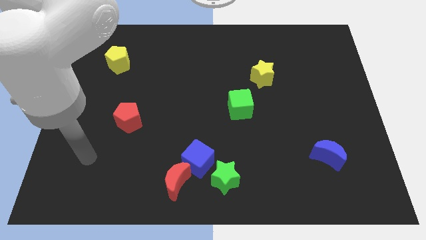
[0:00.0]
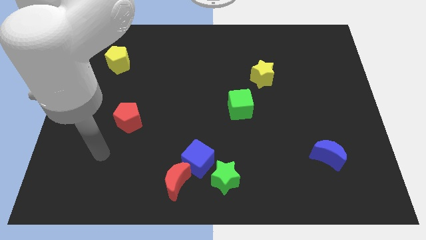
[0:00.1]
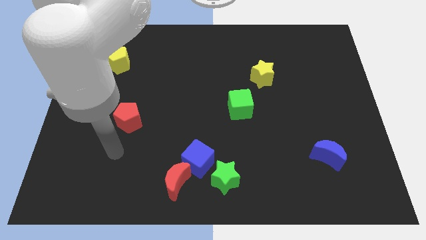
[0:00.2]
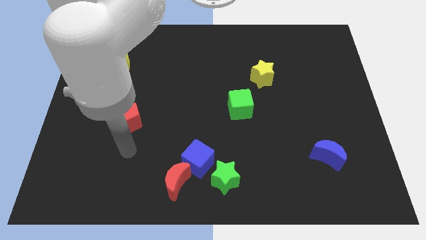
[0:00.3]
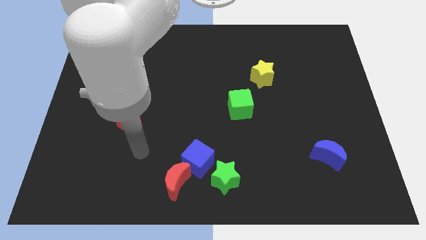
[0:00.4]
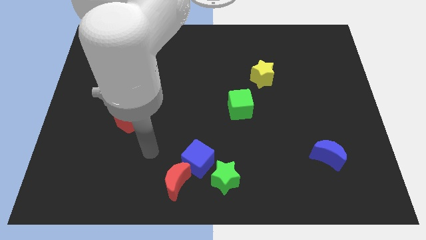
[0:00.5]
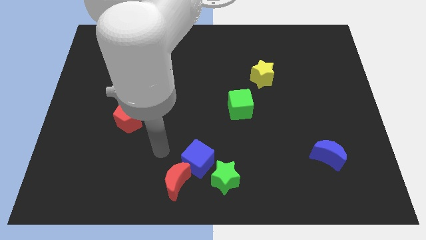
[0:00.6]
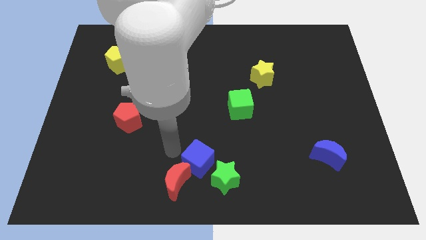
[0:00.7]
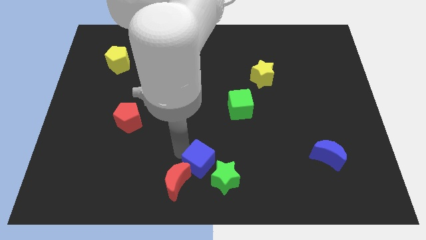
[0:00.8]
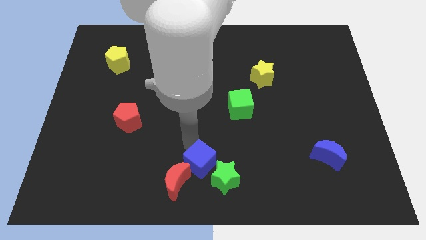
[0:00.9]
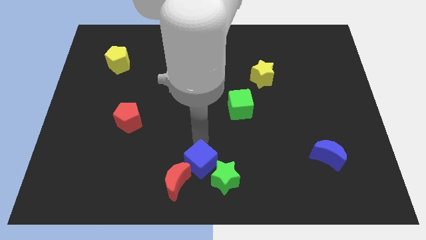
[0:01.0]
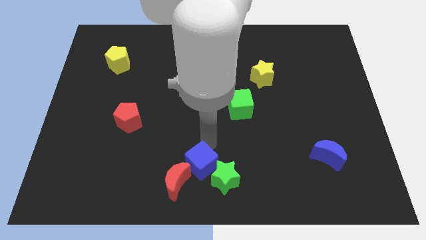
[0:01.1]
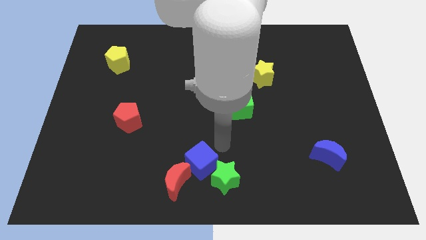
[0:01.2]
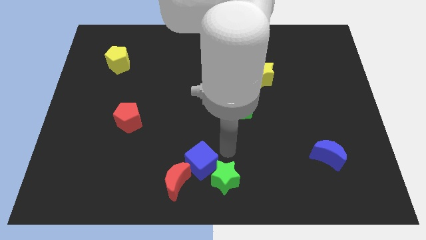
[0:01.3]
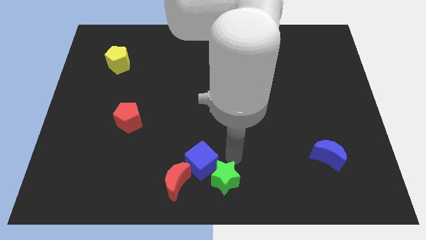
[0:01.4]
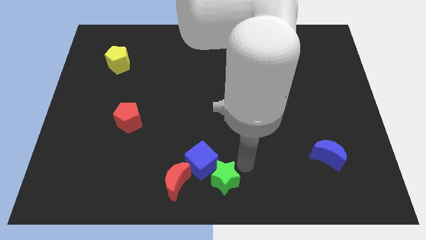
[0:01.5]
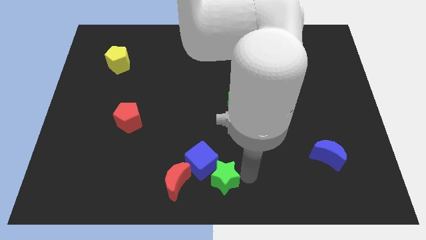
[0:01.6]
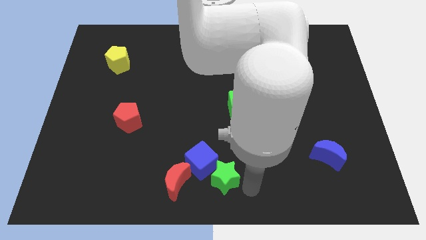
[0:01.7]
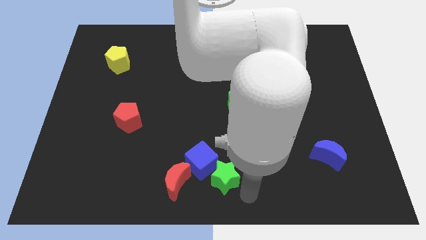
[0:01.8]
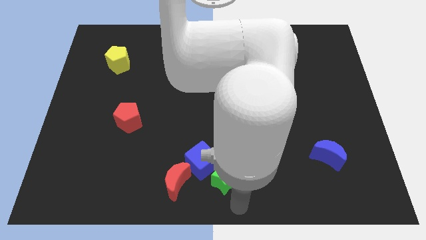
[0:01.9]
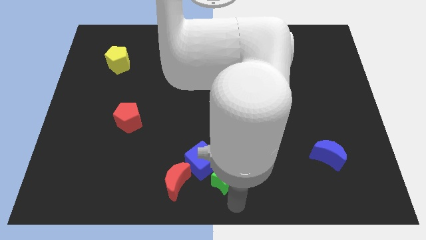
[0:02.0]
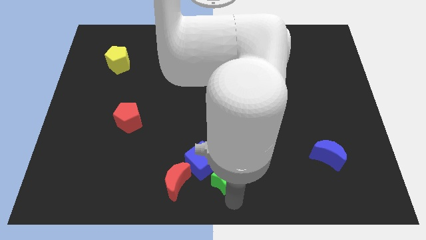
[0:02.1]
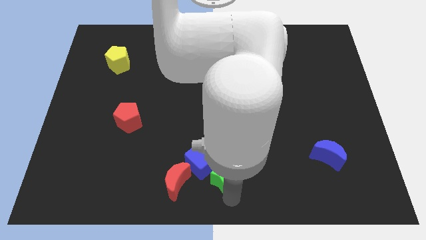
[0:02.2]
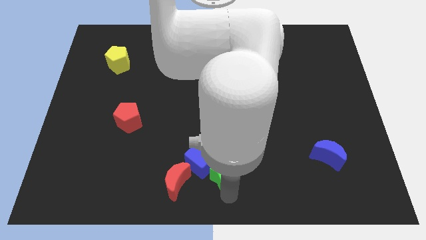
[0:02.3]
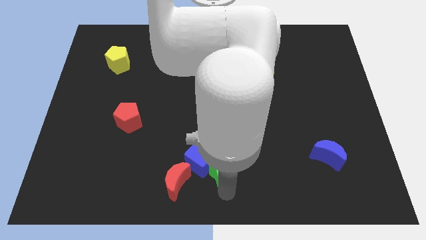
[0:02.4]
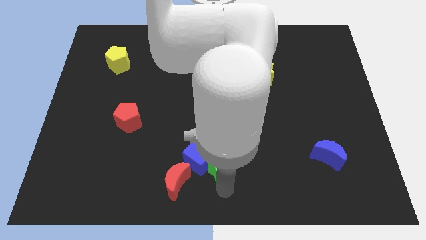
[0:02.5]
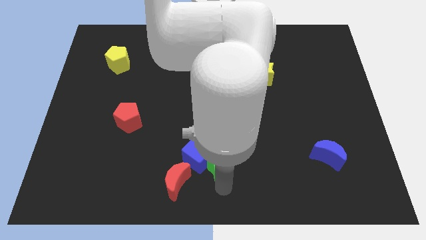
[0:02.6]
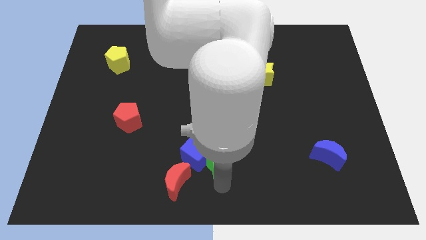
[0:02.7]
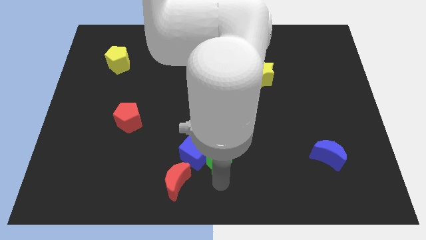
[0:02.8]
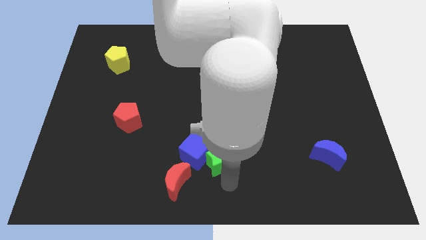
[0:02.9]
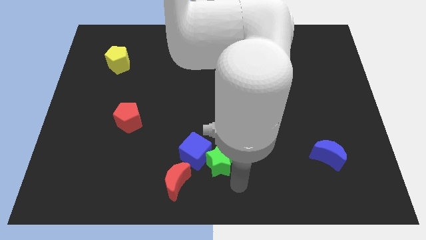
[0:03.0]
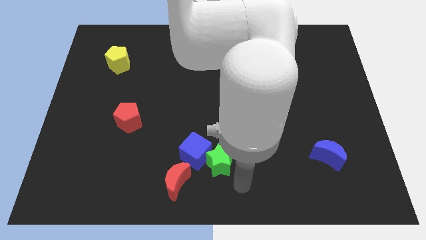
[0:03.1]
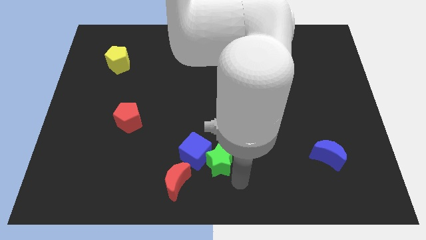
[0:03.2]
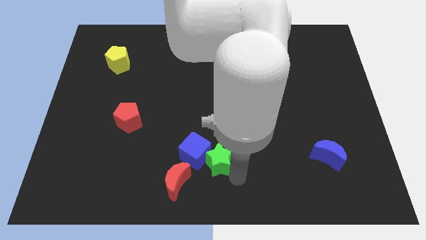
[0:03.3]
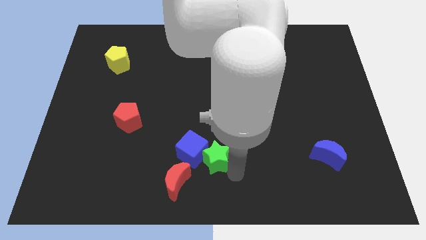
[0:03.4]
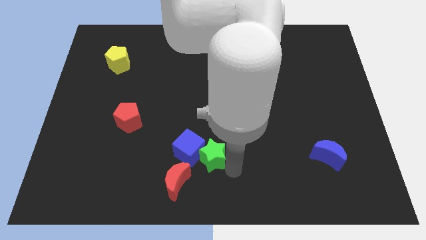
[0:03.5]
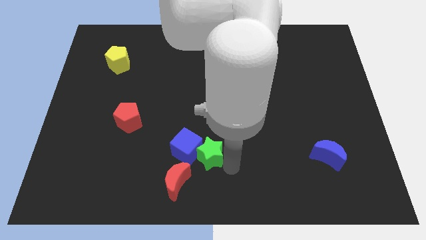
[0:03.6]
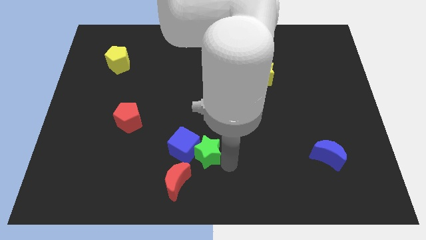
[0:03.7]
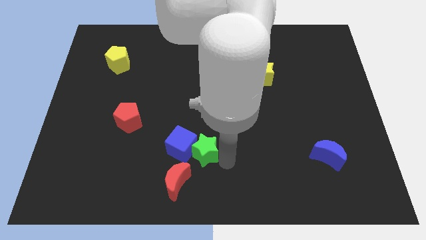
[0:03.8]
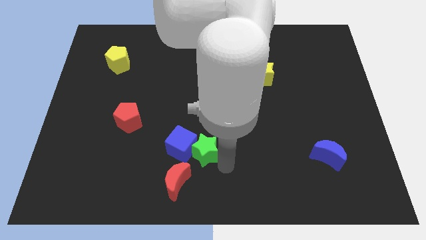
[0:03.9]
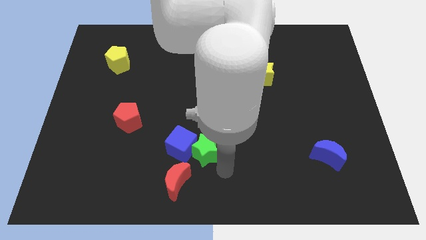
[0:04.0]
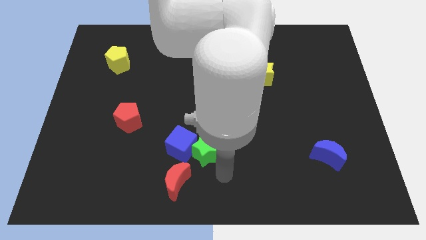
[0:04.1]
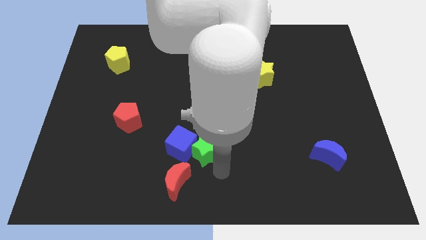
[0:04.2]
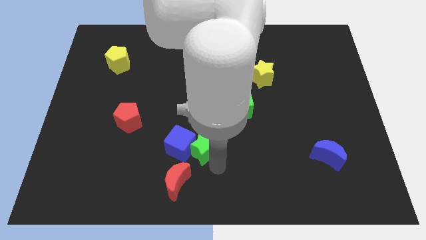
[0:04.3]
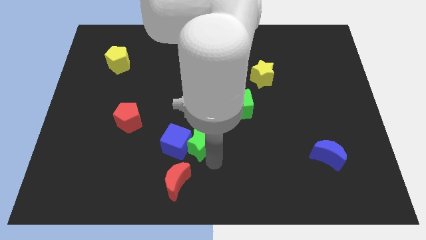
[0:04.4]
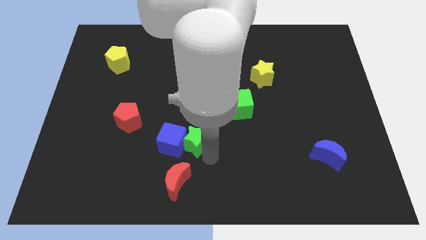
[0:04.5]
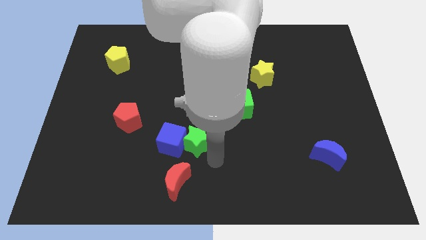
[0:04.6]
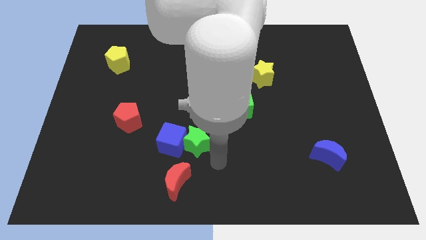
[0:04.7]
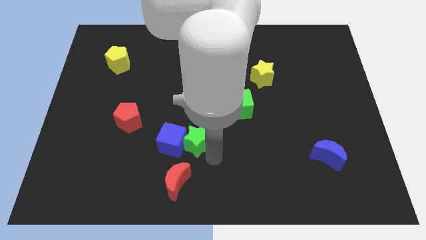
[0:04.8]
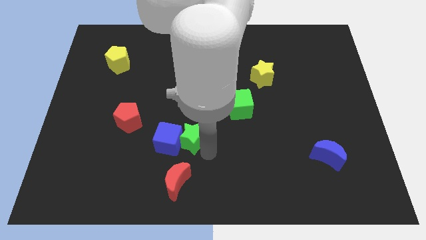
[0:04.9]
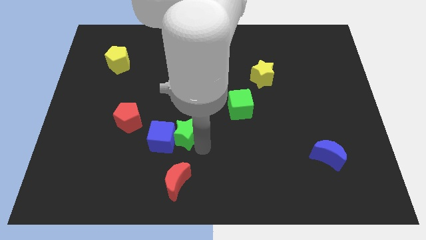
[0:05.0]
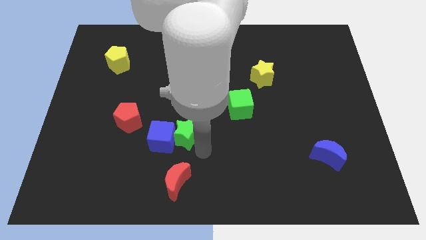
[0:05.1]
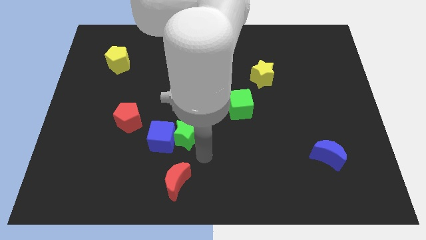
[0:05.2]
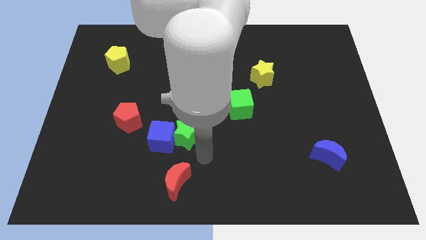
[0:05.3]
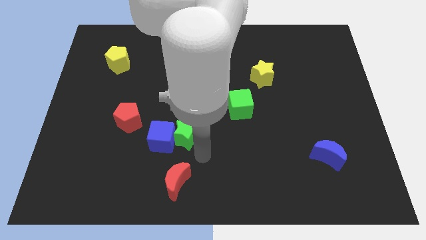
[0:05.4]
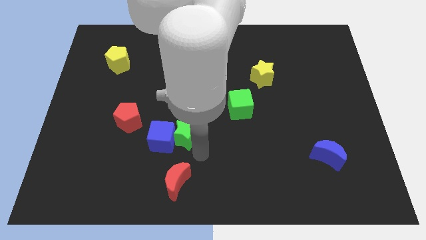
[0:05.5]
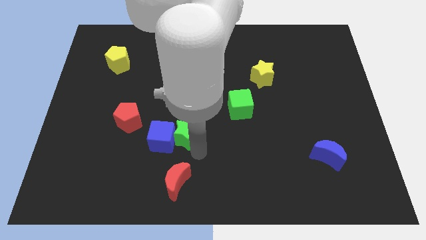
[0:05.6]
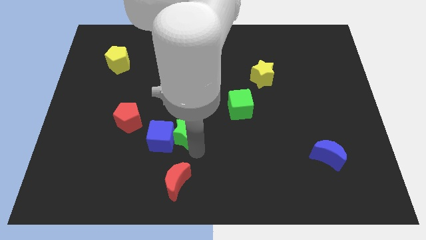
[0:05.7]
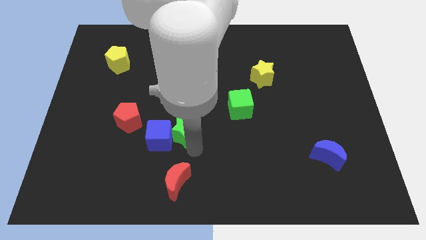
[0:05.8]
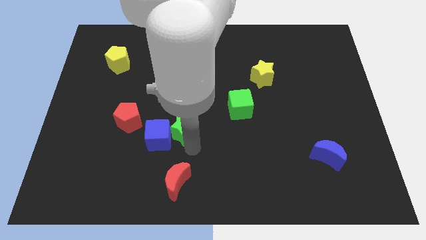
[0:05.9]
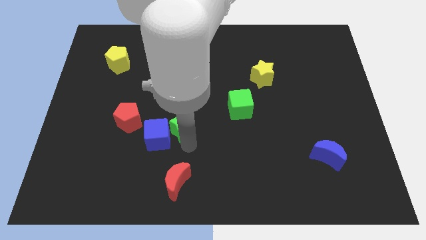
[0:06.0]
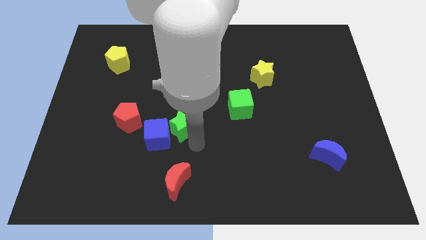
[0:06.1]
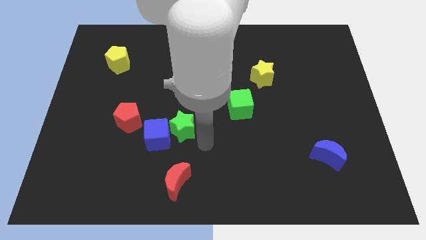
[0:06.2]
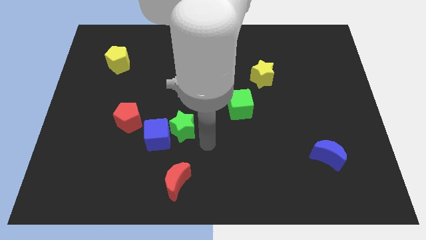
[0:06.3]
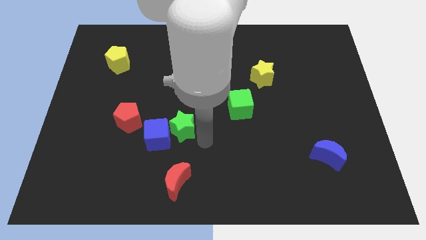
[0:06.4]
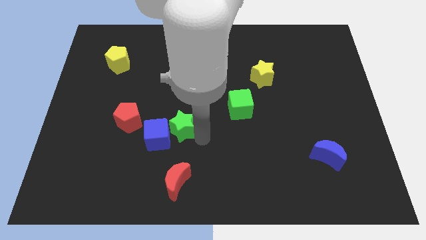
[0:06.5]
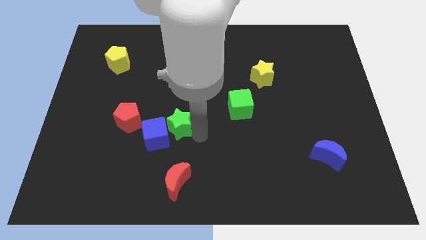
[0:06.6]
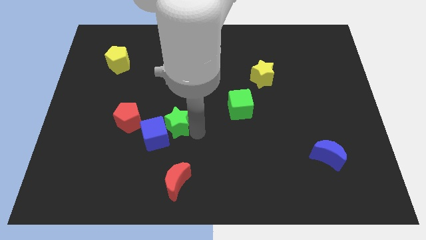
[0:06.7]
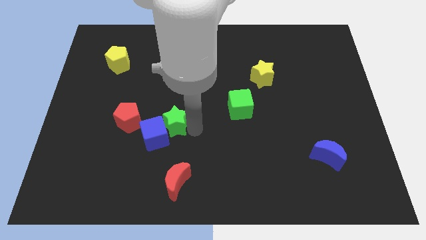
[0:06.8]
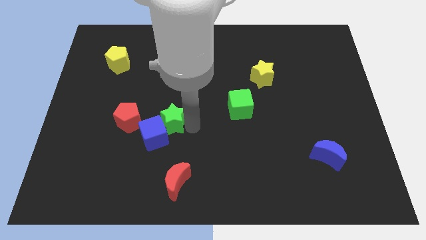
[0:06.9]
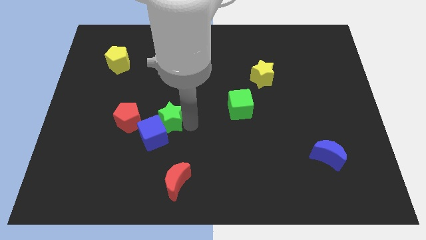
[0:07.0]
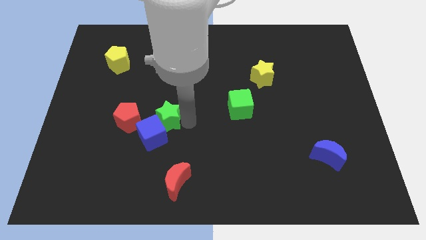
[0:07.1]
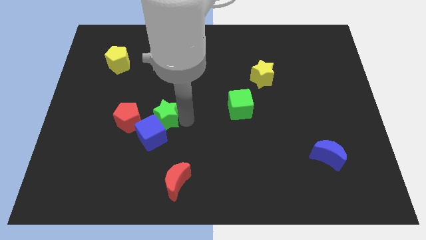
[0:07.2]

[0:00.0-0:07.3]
push the green star diagonally upwards and to the left

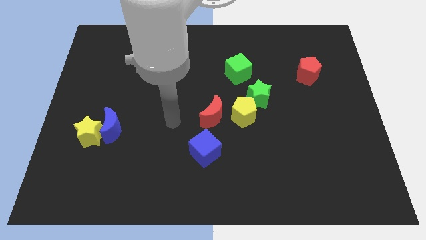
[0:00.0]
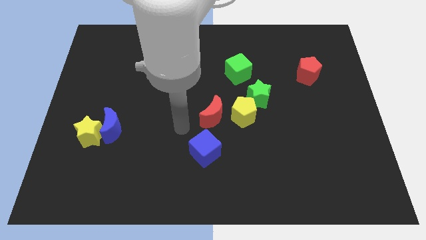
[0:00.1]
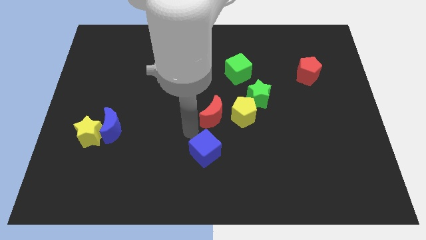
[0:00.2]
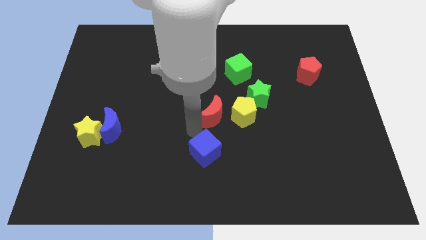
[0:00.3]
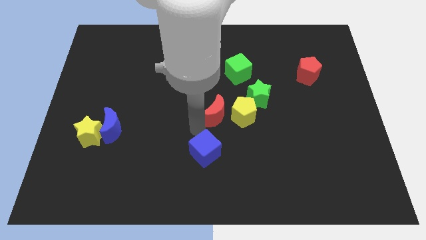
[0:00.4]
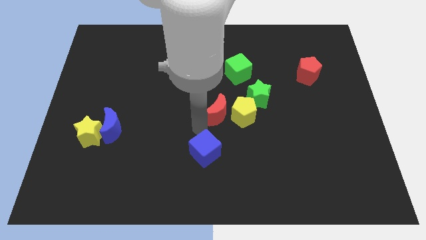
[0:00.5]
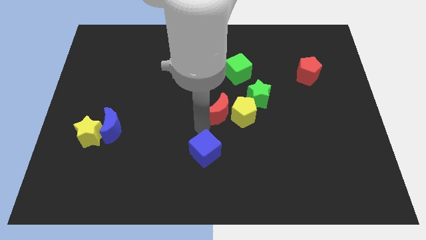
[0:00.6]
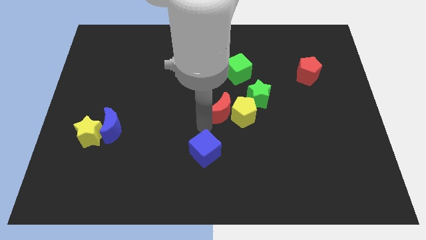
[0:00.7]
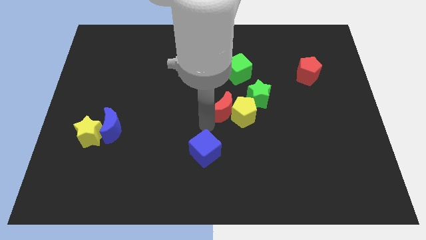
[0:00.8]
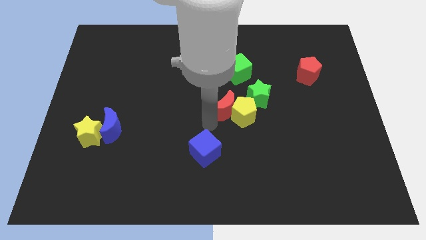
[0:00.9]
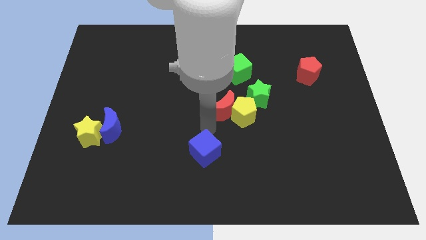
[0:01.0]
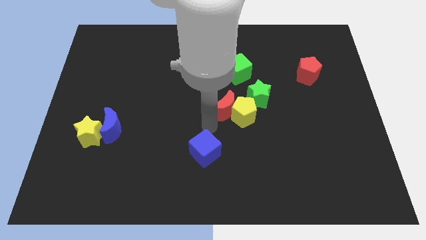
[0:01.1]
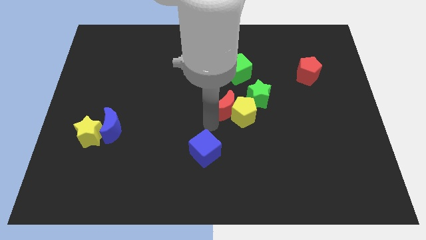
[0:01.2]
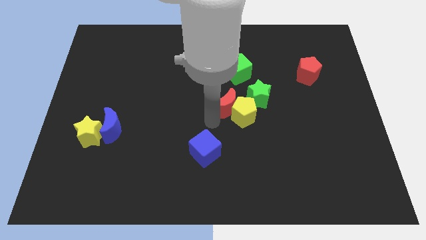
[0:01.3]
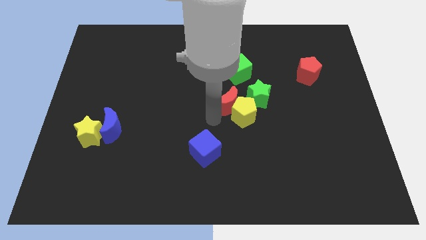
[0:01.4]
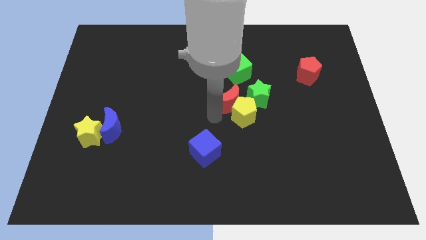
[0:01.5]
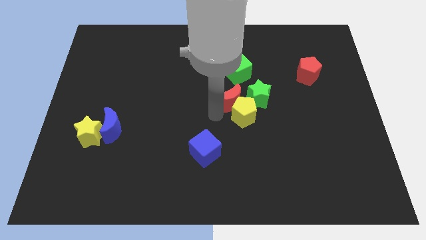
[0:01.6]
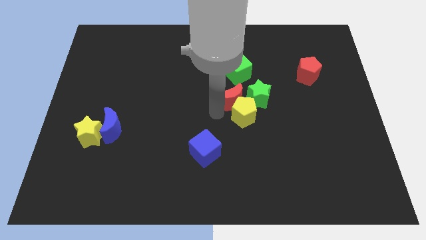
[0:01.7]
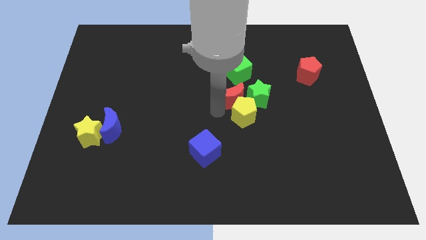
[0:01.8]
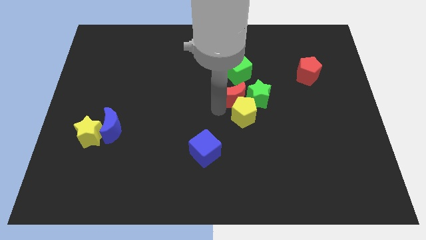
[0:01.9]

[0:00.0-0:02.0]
slightly move the red moon up and right diagonally
